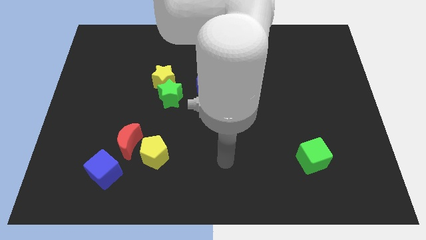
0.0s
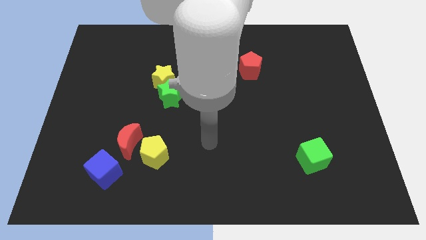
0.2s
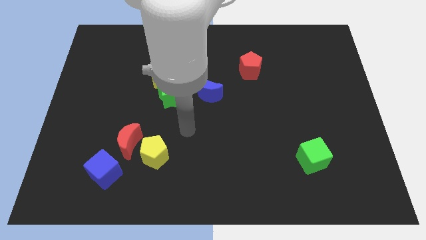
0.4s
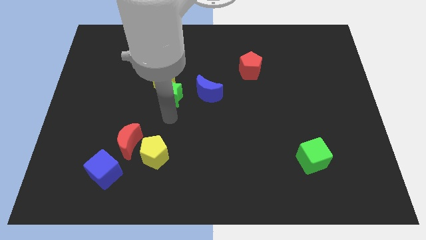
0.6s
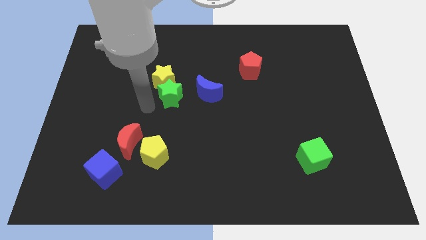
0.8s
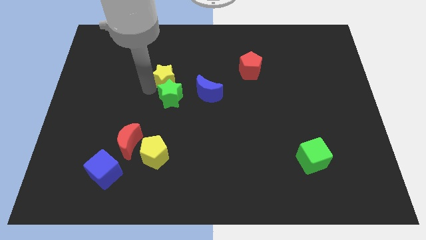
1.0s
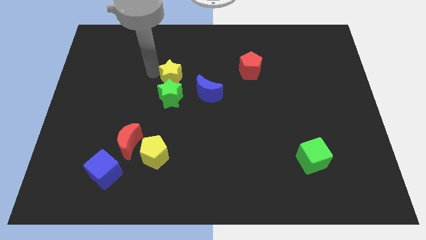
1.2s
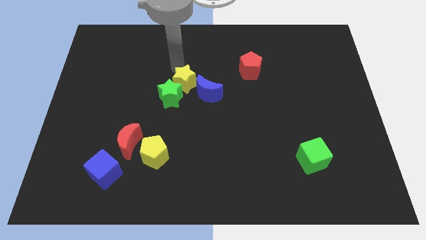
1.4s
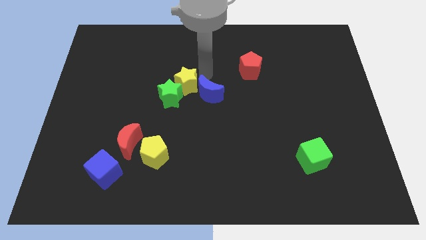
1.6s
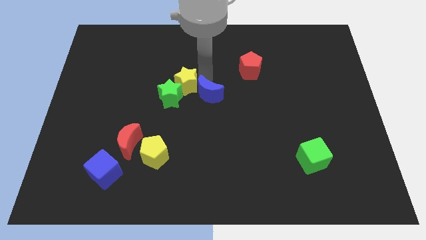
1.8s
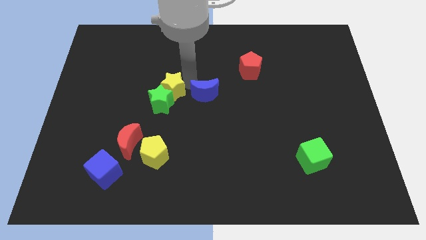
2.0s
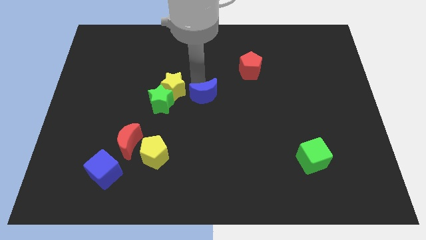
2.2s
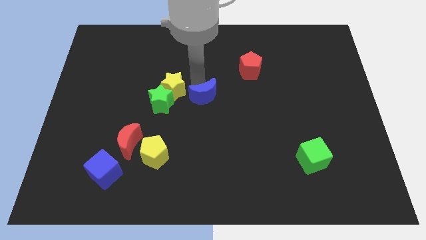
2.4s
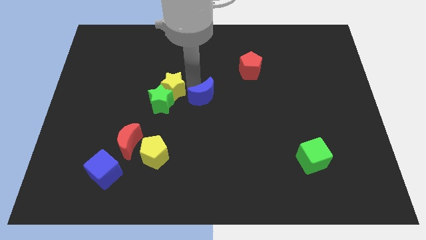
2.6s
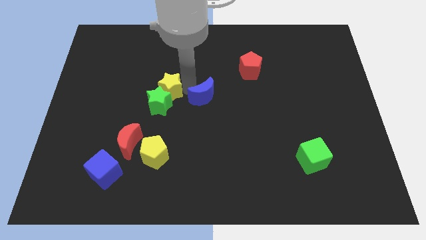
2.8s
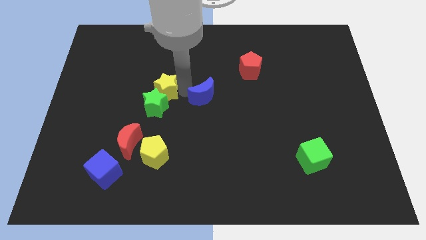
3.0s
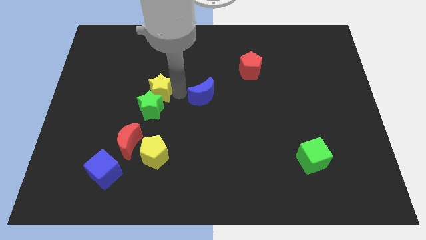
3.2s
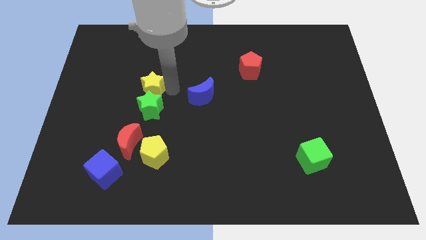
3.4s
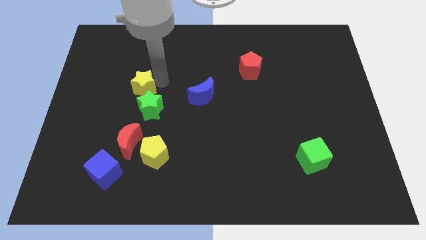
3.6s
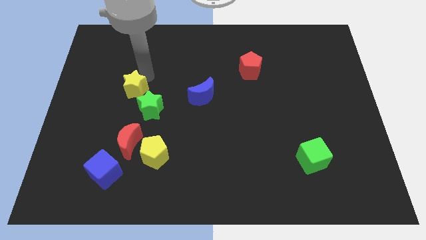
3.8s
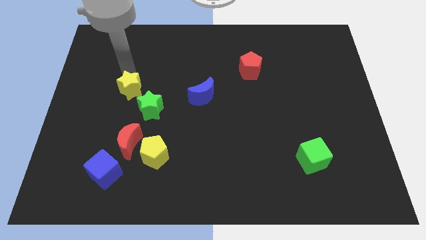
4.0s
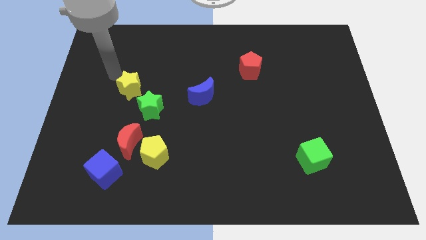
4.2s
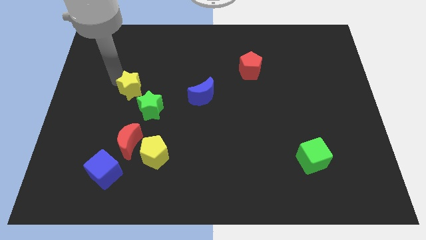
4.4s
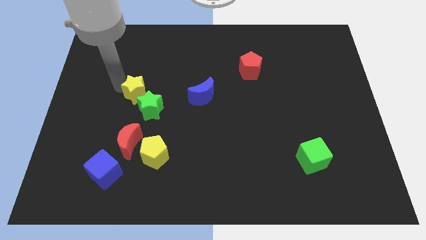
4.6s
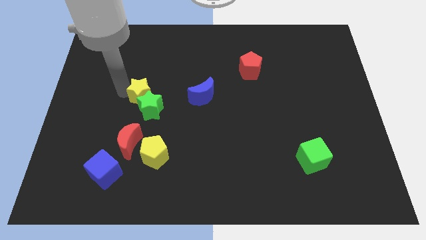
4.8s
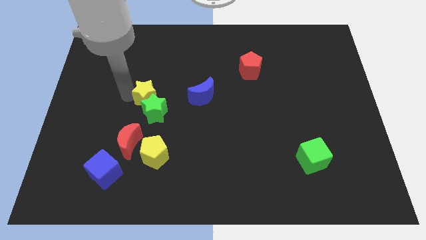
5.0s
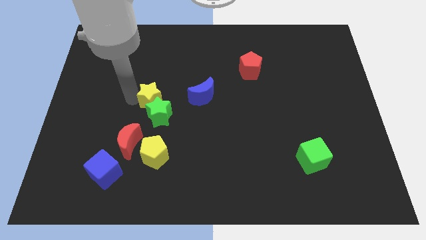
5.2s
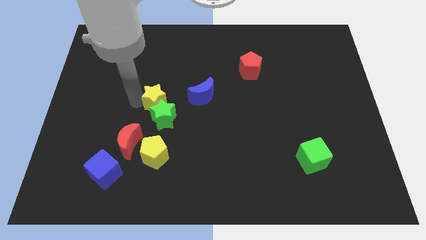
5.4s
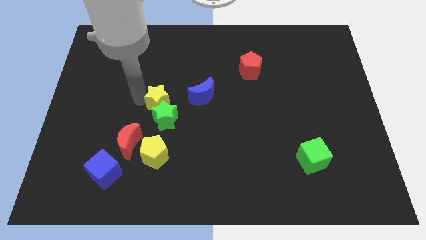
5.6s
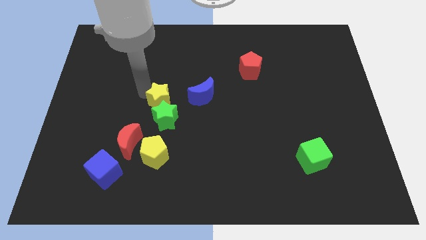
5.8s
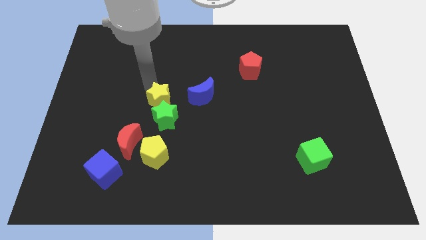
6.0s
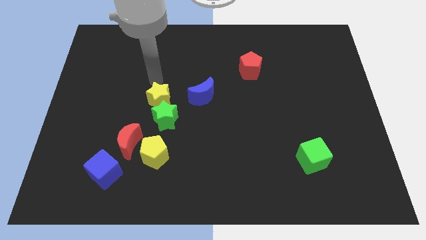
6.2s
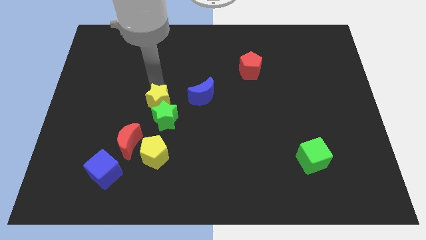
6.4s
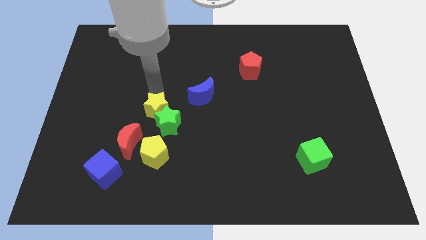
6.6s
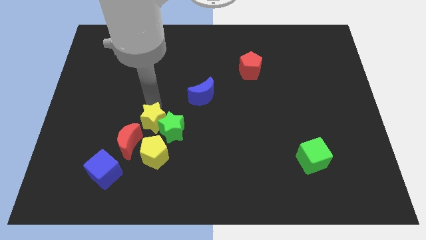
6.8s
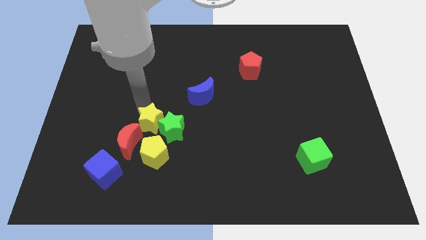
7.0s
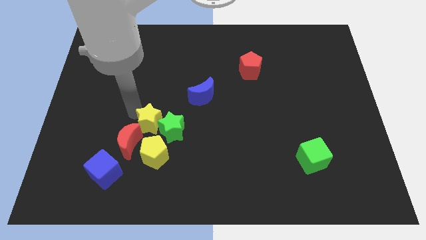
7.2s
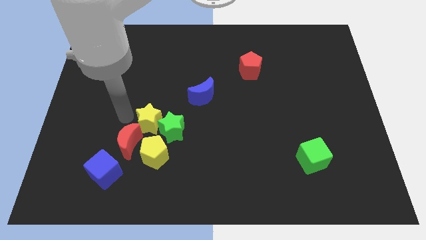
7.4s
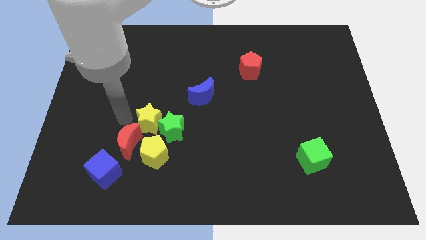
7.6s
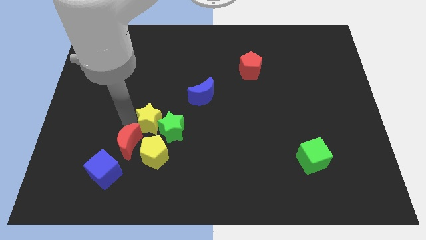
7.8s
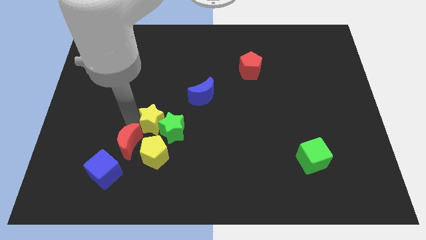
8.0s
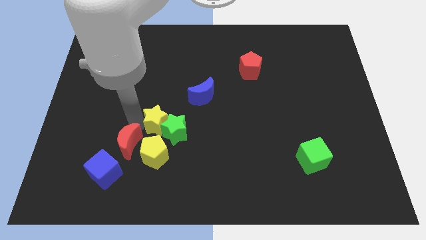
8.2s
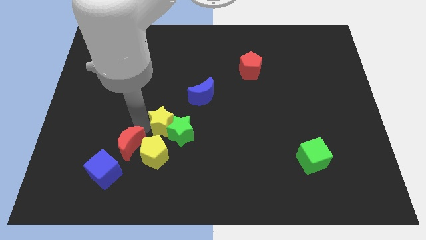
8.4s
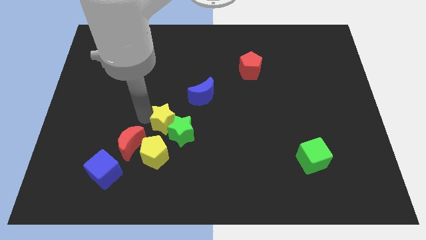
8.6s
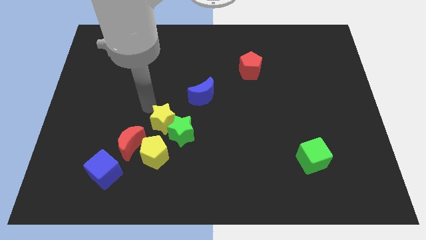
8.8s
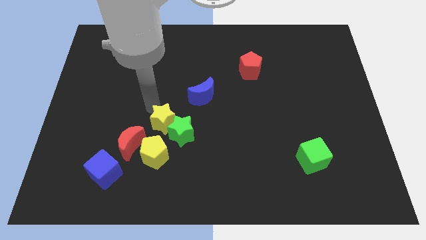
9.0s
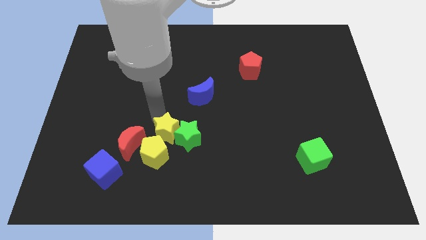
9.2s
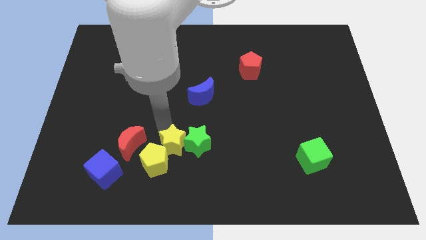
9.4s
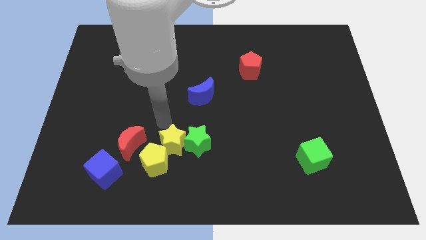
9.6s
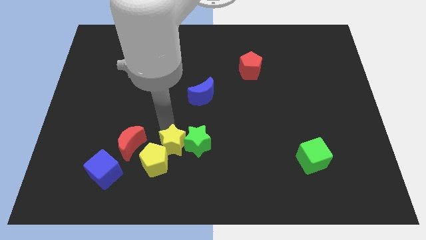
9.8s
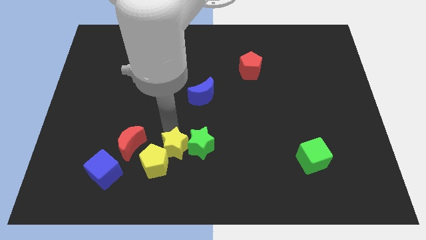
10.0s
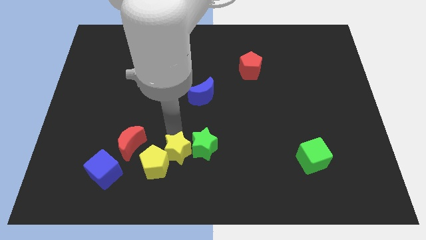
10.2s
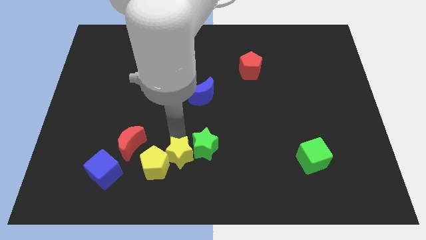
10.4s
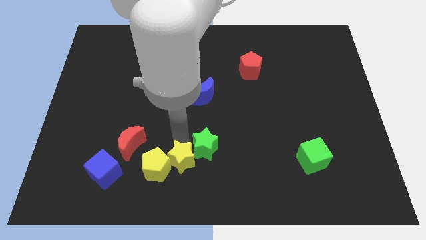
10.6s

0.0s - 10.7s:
slide the yellow star to the bottom

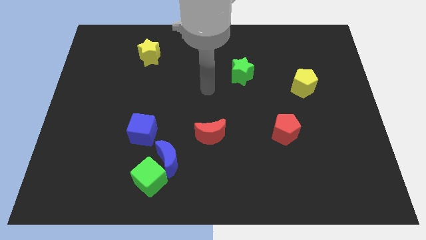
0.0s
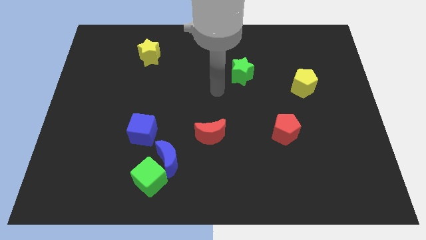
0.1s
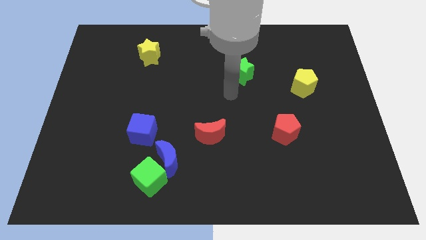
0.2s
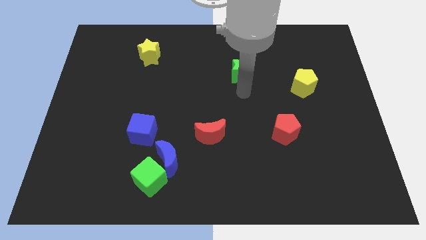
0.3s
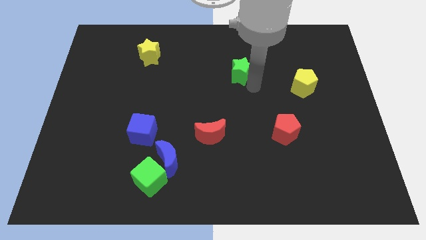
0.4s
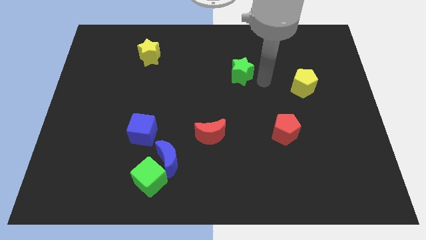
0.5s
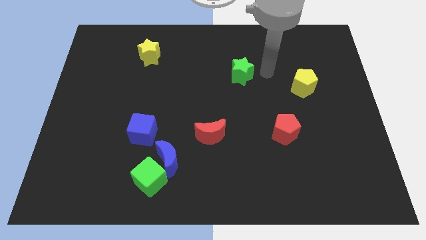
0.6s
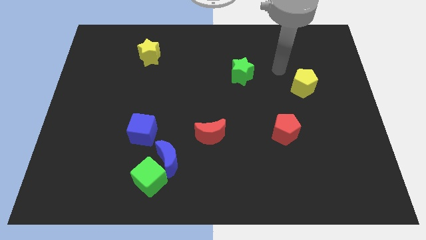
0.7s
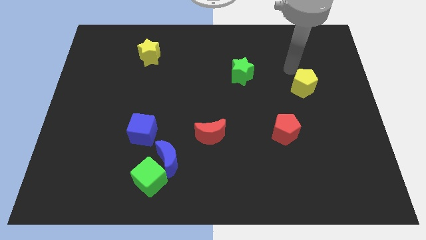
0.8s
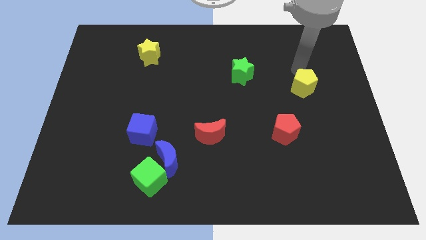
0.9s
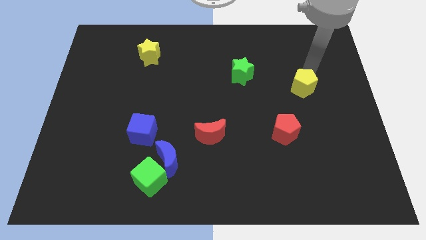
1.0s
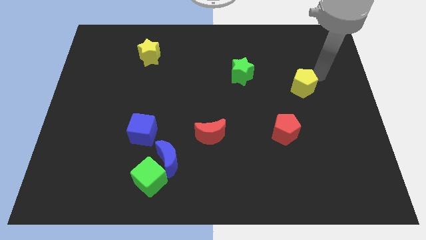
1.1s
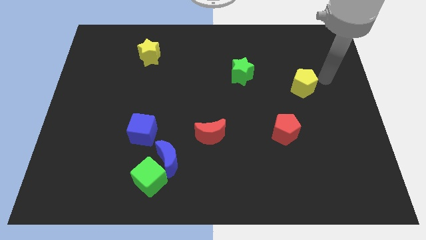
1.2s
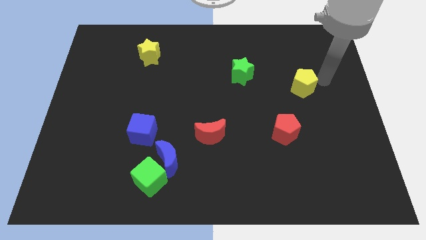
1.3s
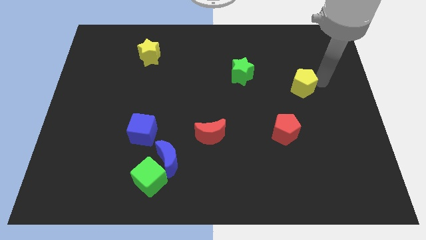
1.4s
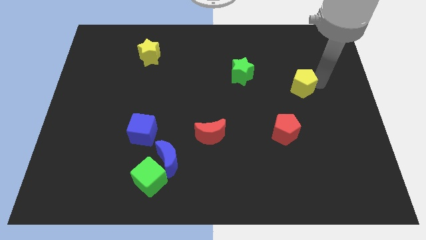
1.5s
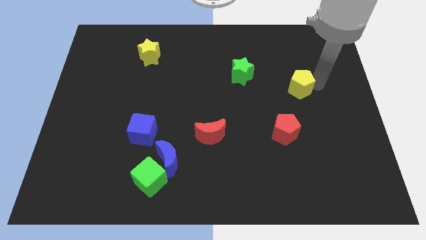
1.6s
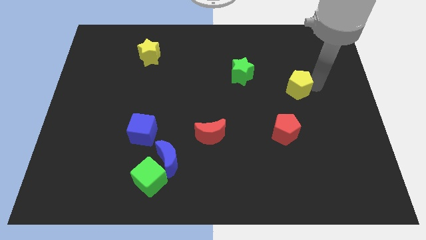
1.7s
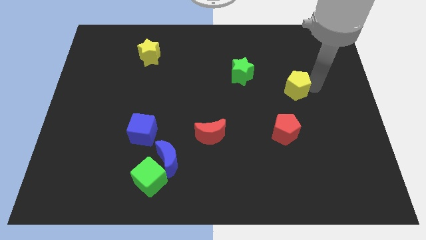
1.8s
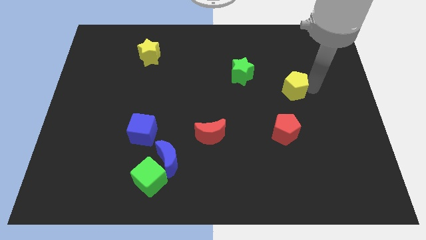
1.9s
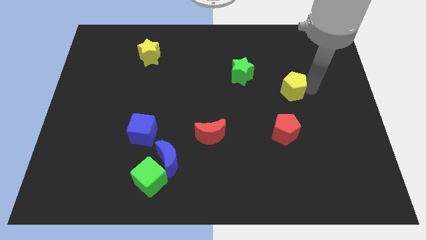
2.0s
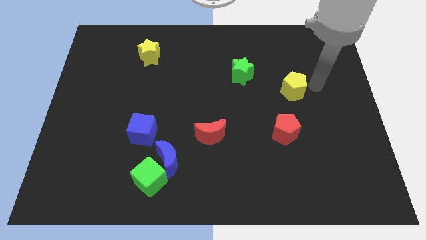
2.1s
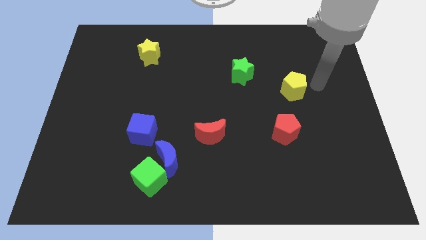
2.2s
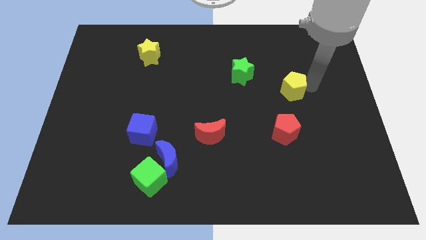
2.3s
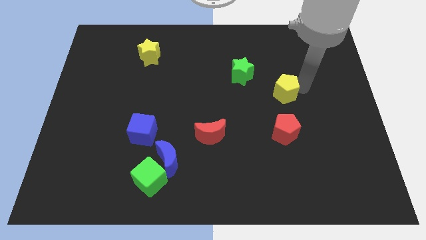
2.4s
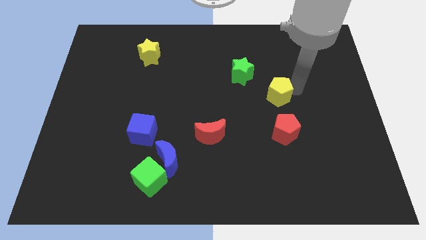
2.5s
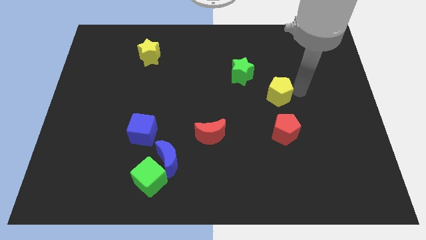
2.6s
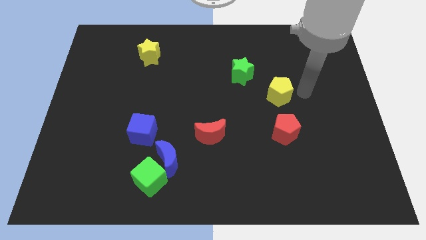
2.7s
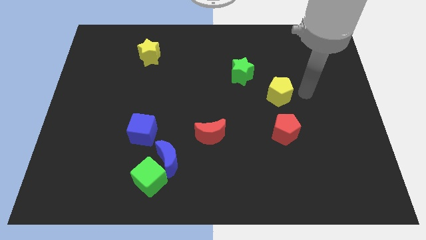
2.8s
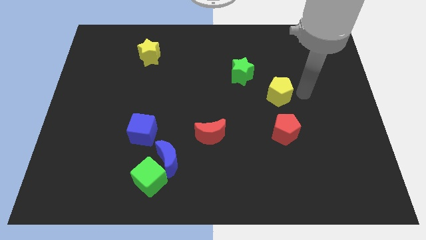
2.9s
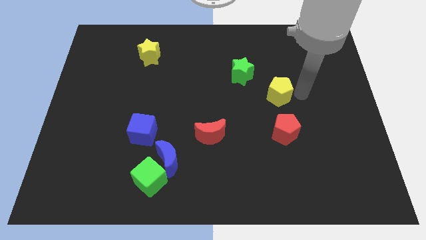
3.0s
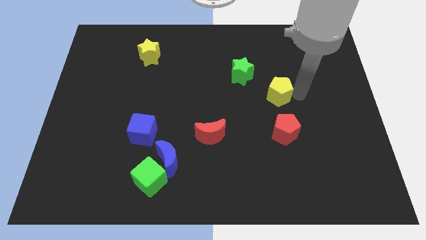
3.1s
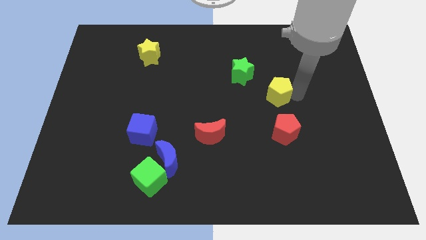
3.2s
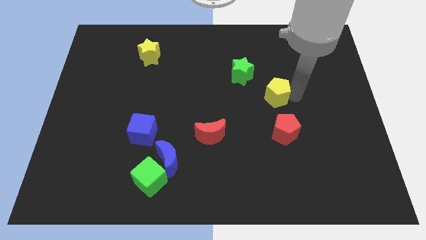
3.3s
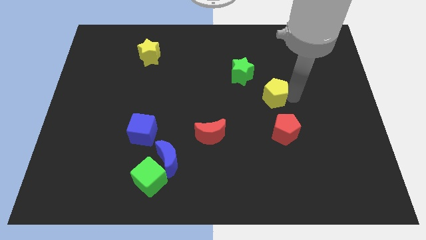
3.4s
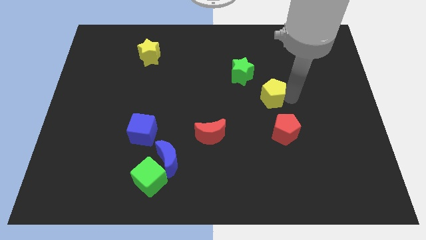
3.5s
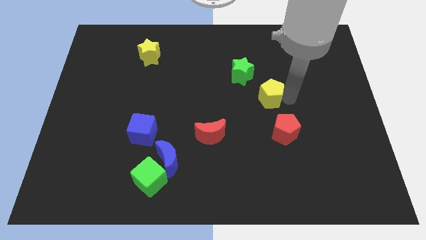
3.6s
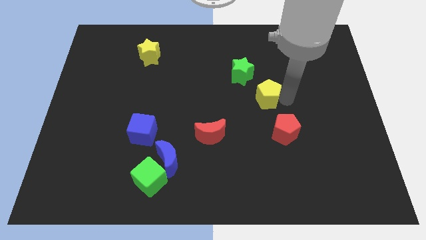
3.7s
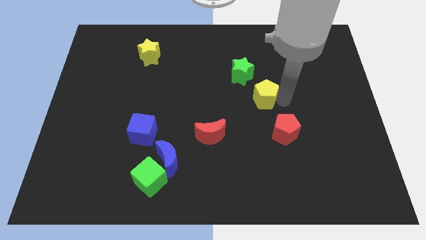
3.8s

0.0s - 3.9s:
move the yellow pentagon to the middle of the board
